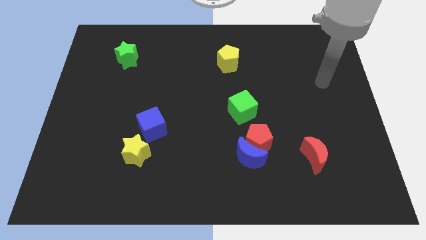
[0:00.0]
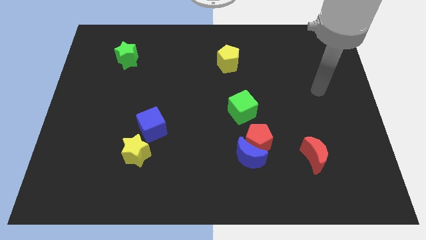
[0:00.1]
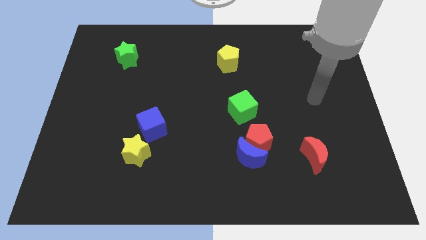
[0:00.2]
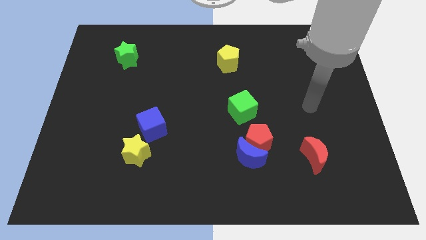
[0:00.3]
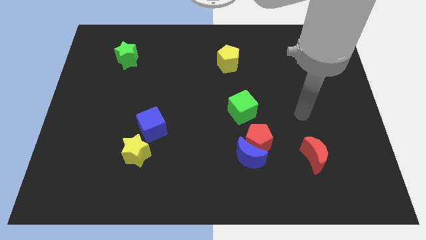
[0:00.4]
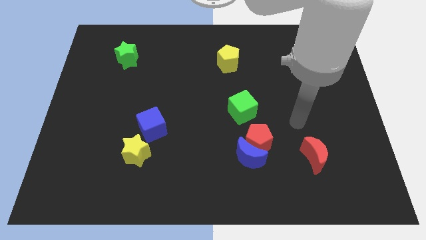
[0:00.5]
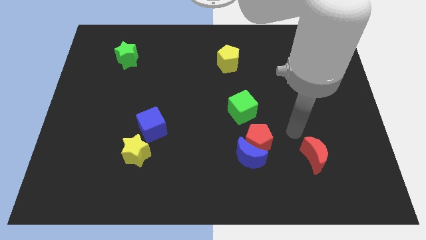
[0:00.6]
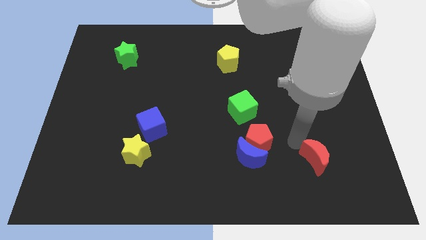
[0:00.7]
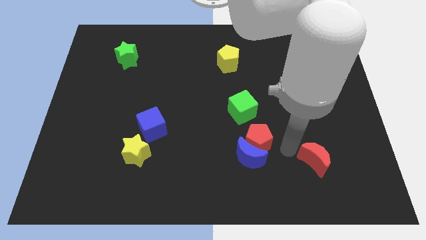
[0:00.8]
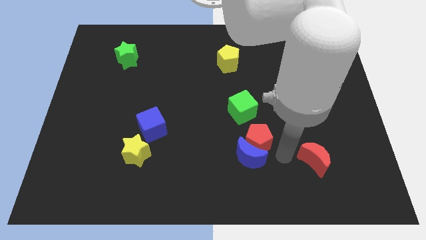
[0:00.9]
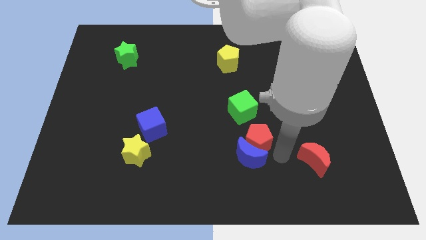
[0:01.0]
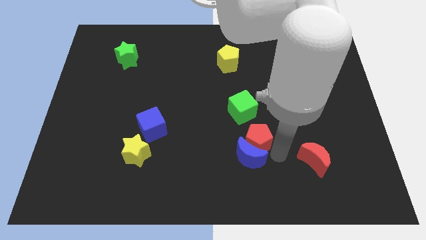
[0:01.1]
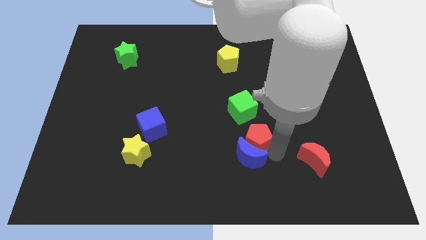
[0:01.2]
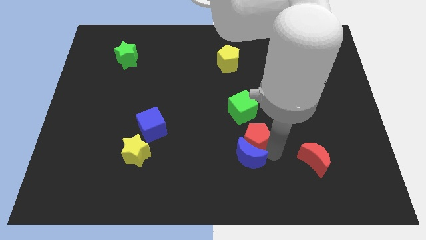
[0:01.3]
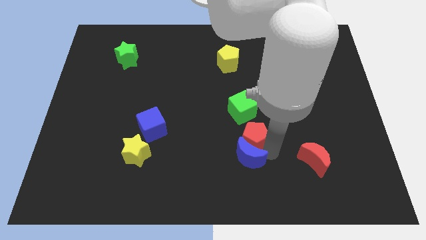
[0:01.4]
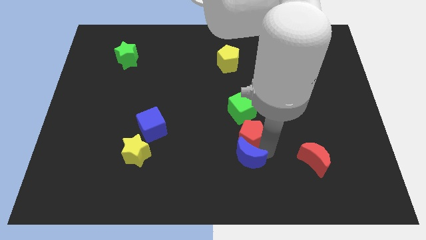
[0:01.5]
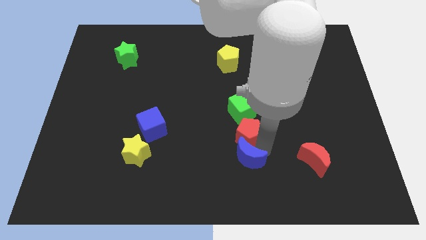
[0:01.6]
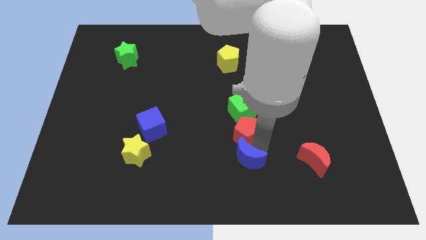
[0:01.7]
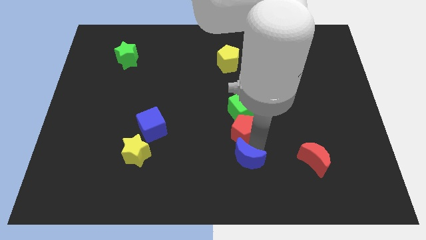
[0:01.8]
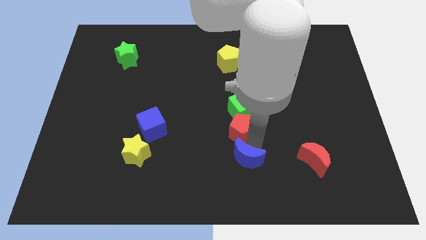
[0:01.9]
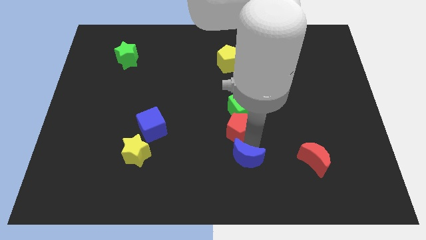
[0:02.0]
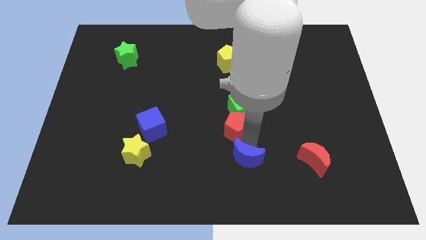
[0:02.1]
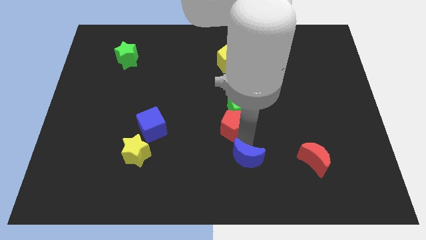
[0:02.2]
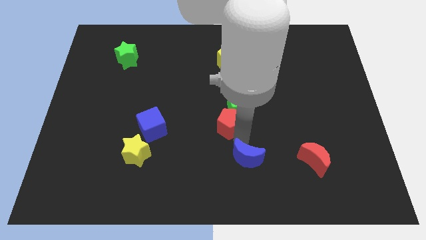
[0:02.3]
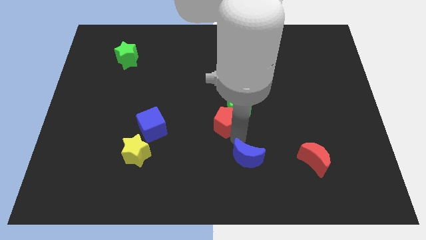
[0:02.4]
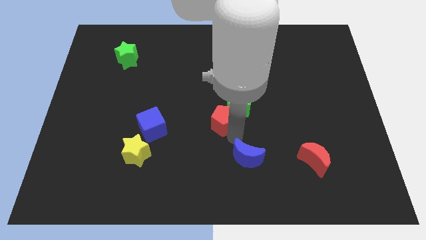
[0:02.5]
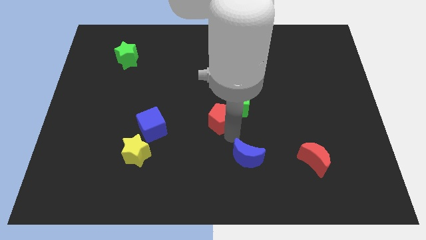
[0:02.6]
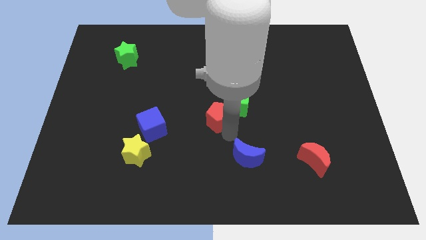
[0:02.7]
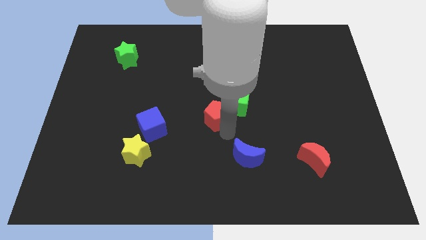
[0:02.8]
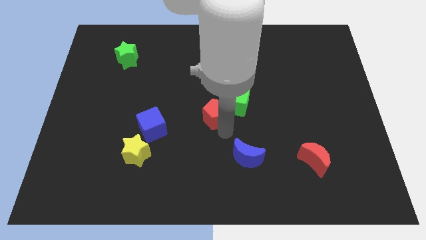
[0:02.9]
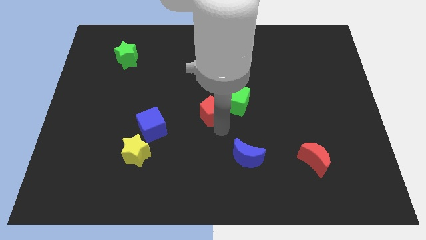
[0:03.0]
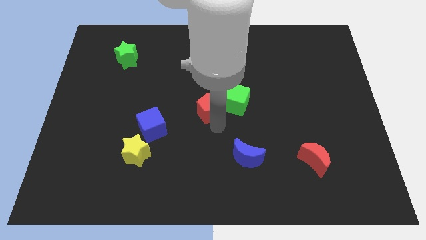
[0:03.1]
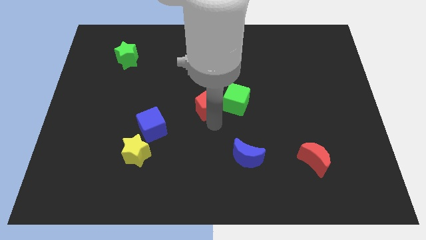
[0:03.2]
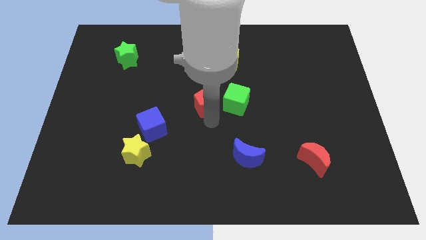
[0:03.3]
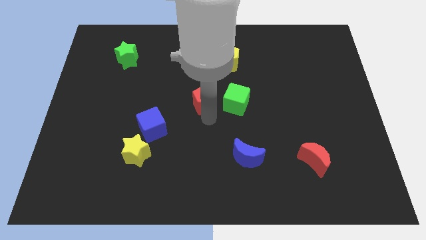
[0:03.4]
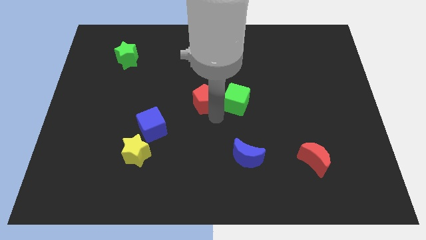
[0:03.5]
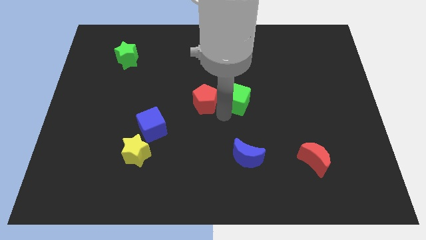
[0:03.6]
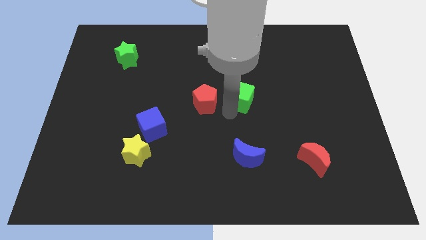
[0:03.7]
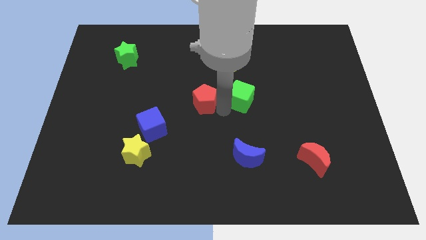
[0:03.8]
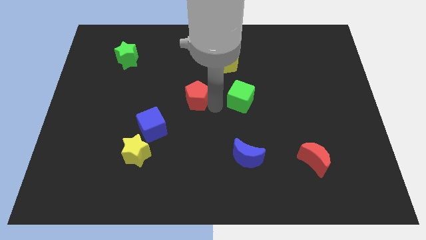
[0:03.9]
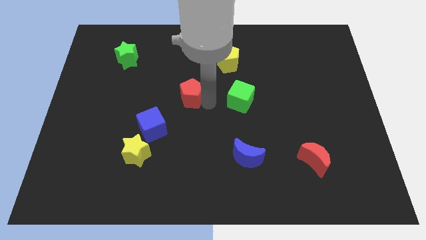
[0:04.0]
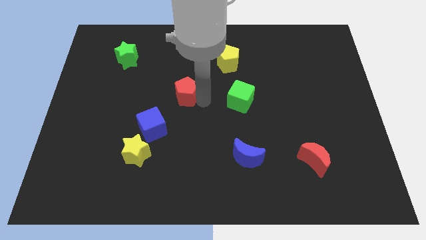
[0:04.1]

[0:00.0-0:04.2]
slide the red pentagon diagonally upwards and to the left

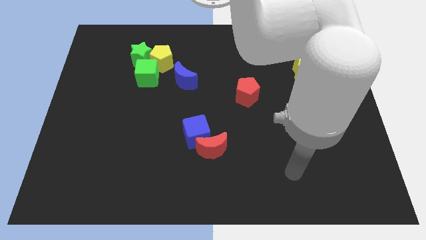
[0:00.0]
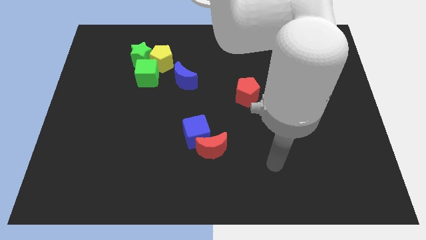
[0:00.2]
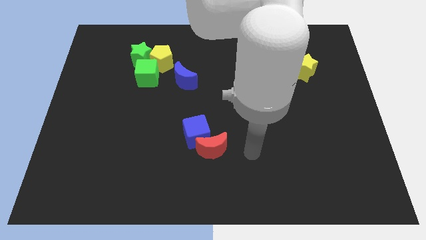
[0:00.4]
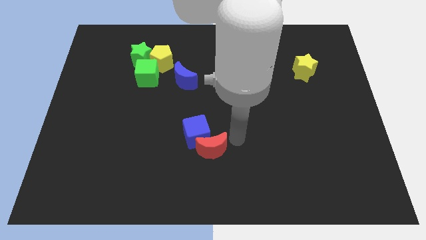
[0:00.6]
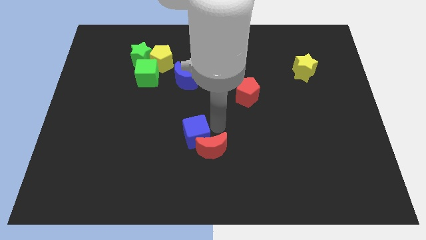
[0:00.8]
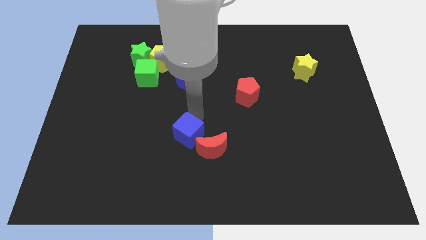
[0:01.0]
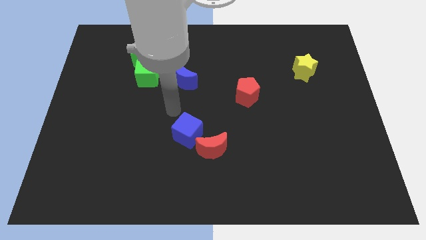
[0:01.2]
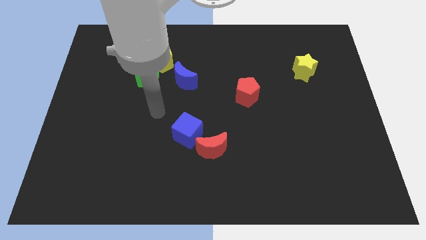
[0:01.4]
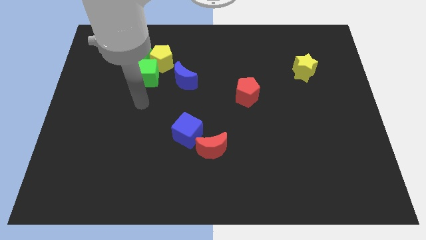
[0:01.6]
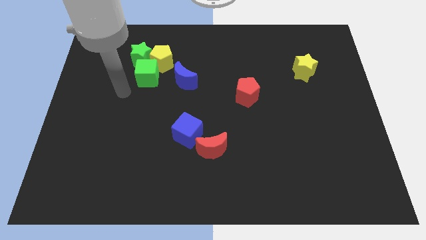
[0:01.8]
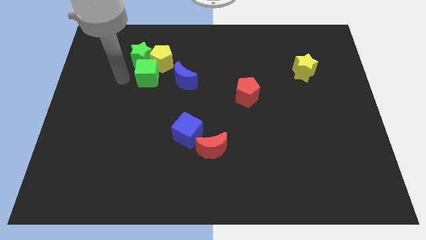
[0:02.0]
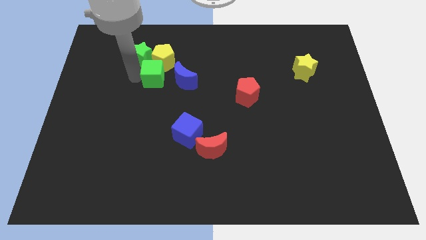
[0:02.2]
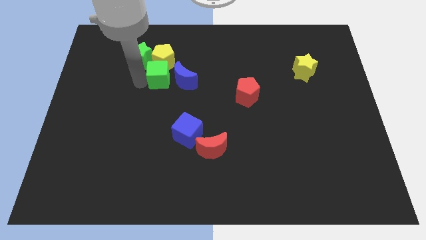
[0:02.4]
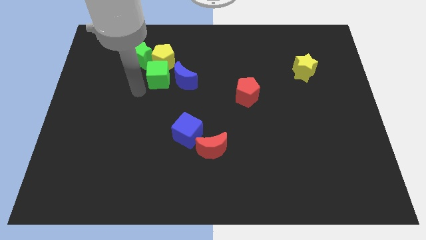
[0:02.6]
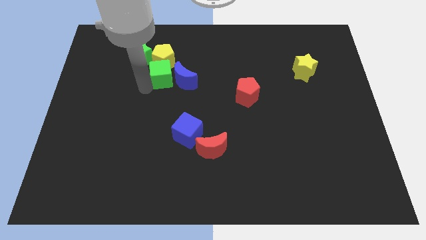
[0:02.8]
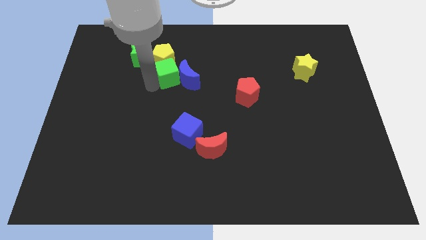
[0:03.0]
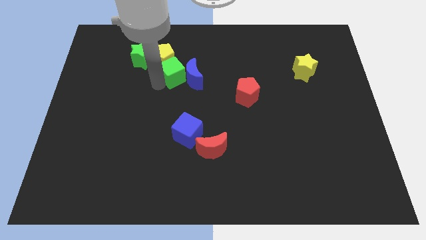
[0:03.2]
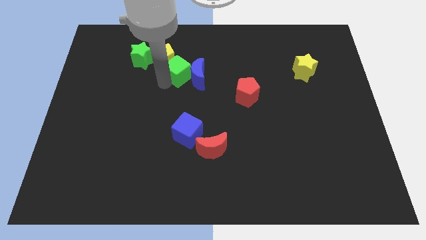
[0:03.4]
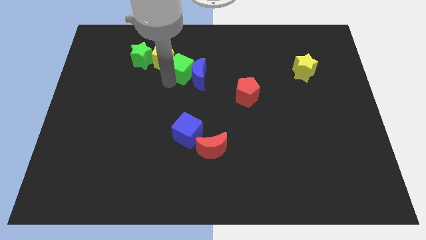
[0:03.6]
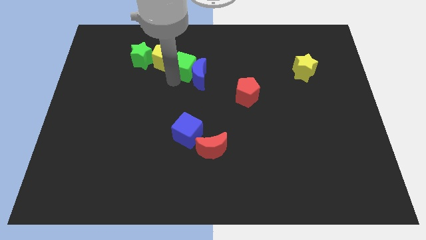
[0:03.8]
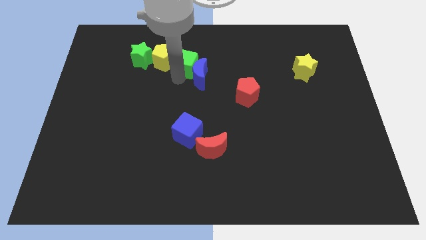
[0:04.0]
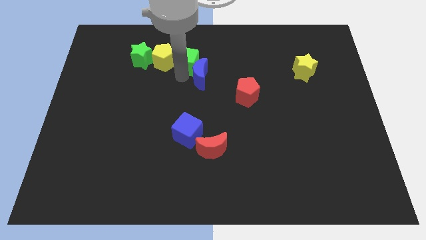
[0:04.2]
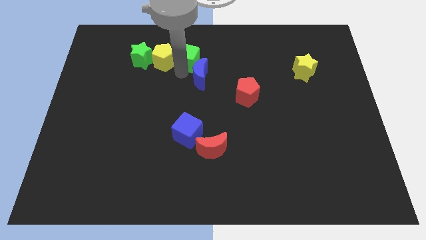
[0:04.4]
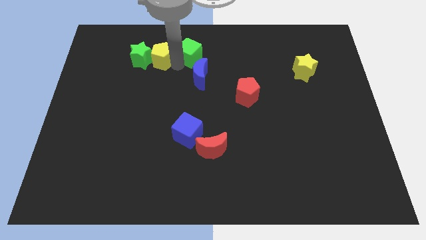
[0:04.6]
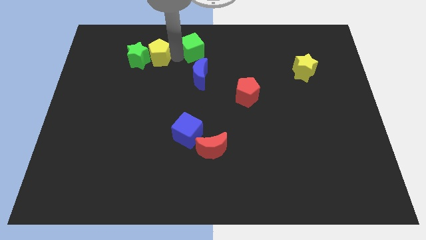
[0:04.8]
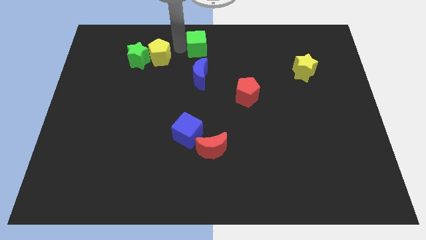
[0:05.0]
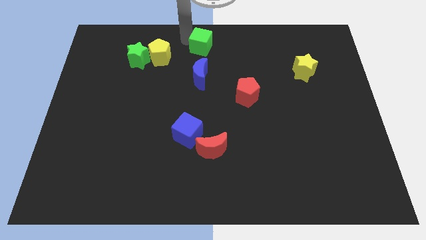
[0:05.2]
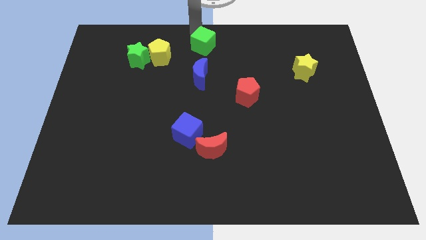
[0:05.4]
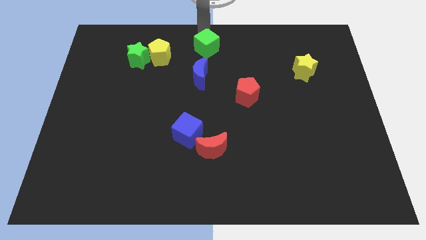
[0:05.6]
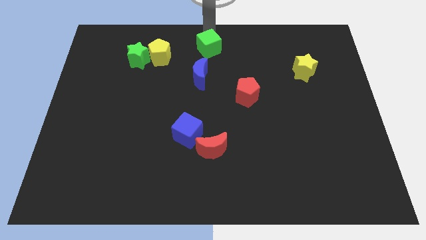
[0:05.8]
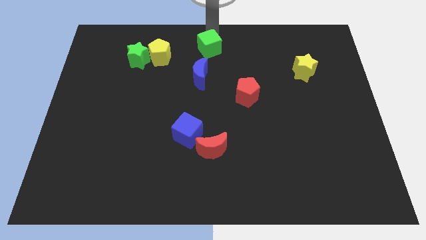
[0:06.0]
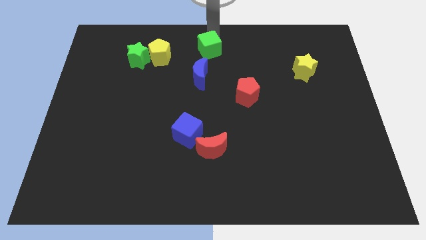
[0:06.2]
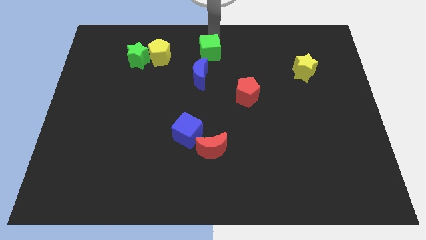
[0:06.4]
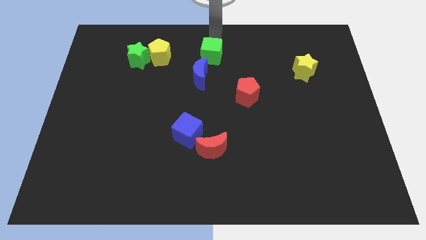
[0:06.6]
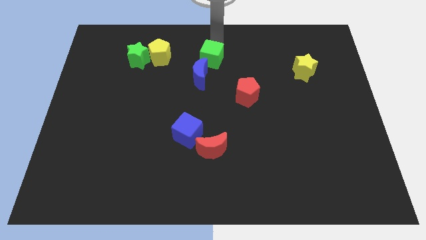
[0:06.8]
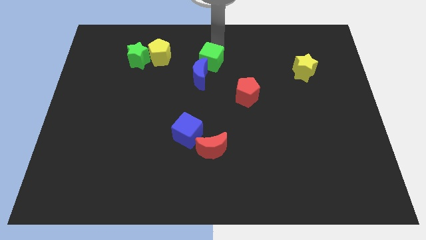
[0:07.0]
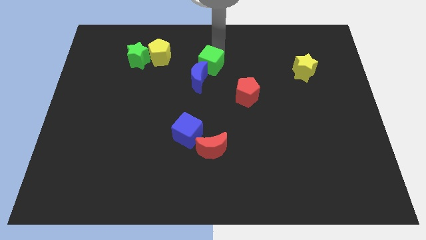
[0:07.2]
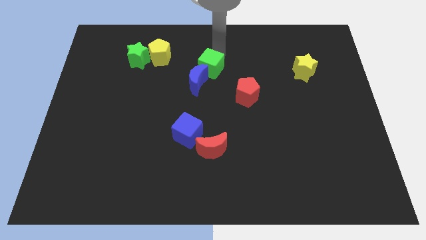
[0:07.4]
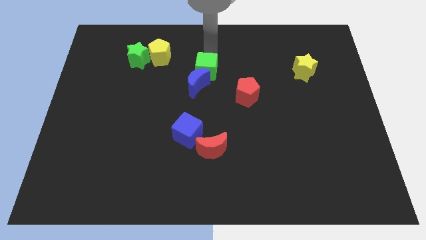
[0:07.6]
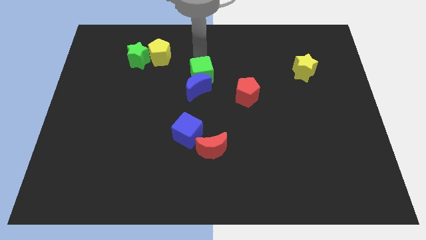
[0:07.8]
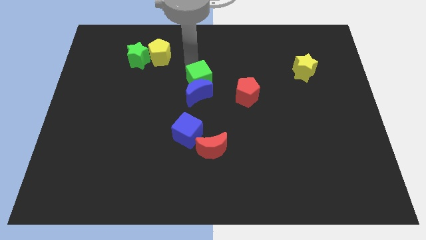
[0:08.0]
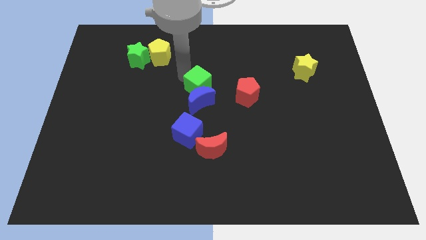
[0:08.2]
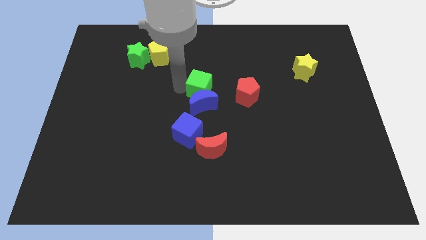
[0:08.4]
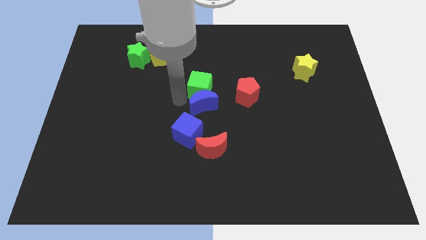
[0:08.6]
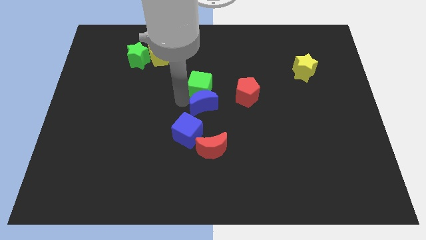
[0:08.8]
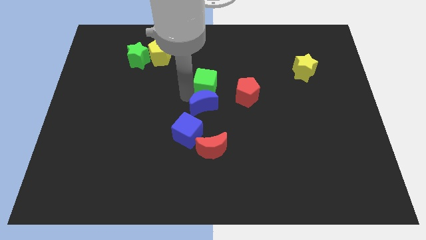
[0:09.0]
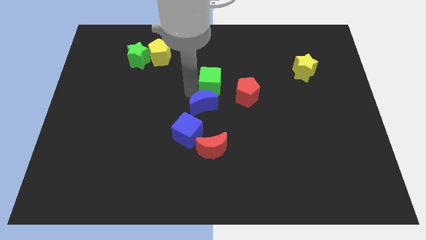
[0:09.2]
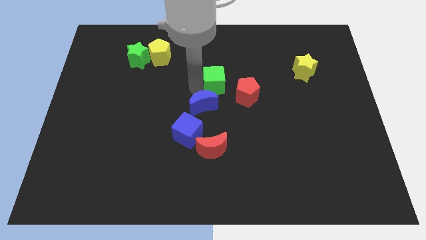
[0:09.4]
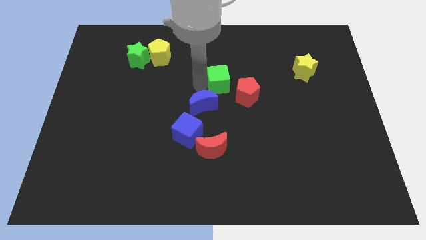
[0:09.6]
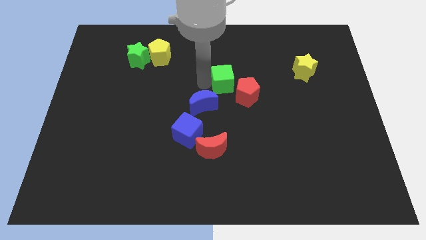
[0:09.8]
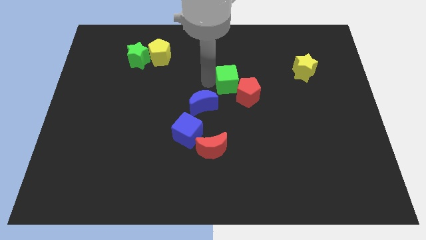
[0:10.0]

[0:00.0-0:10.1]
push the green cube right
